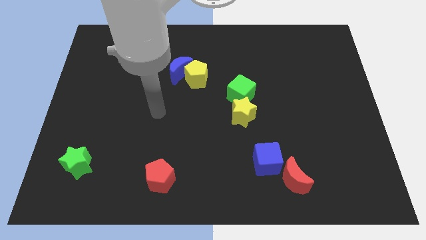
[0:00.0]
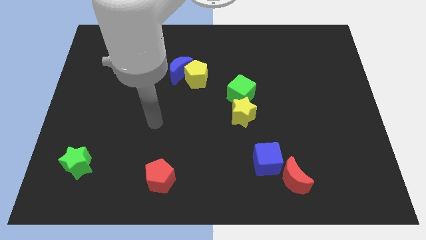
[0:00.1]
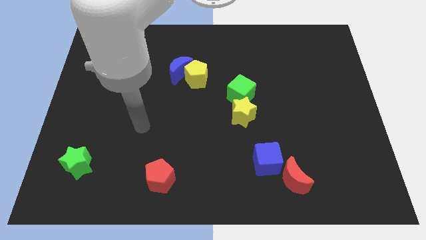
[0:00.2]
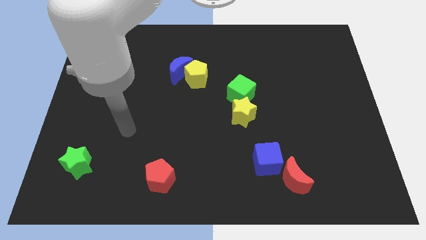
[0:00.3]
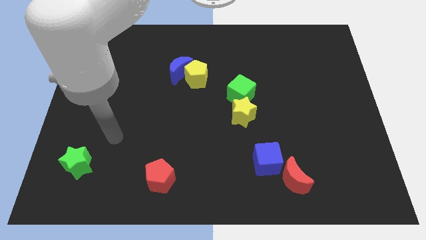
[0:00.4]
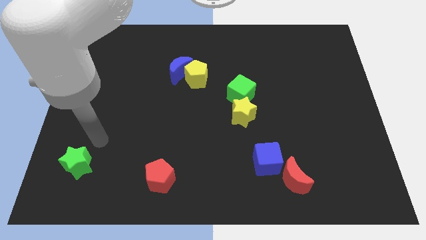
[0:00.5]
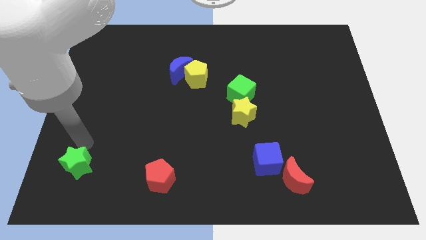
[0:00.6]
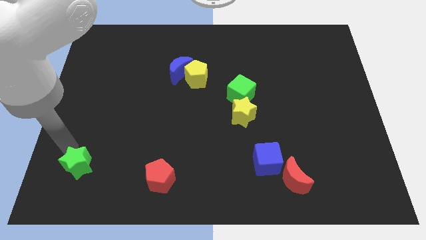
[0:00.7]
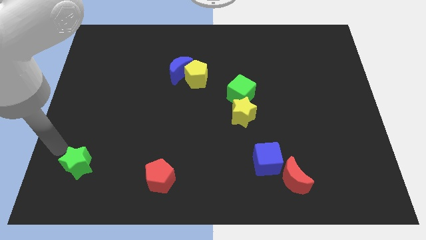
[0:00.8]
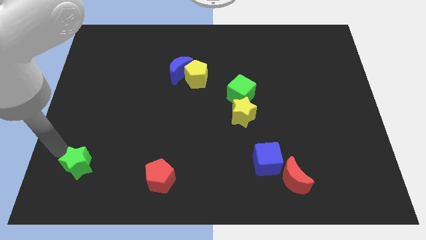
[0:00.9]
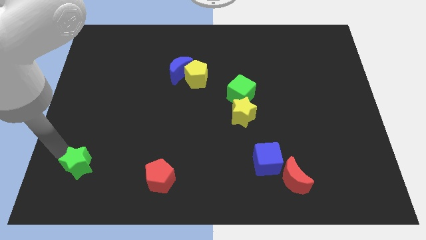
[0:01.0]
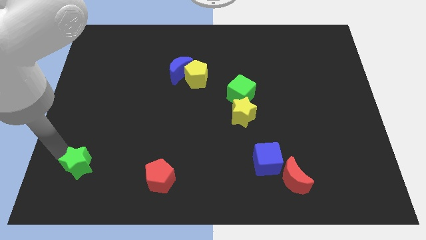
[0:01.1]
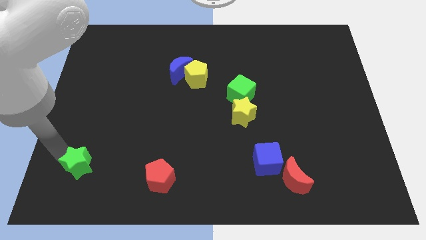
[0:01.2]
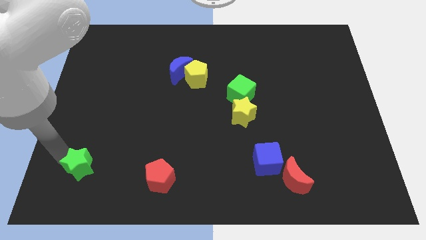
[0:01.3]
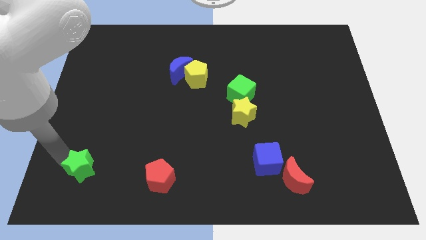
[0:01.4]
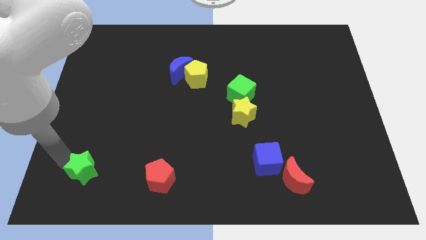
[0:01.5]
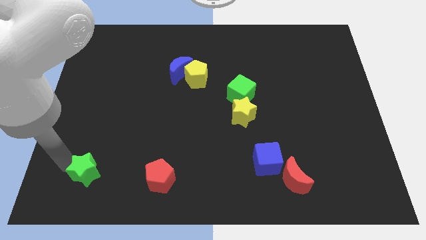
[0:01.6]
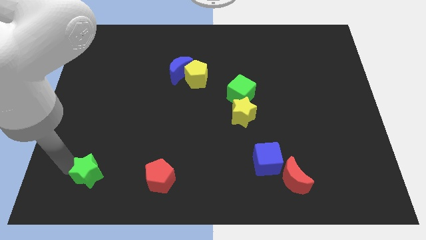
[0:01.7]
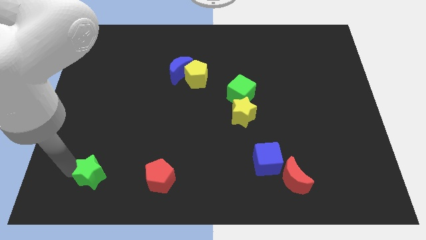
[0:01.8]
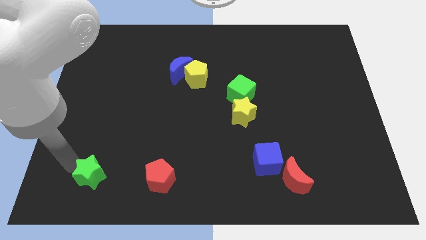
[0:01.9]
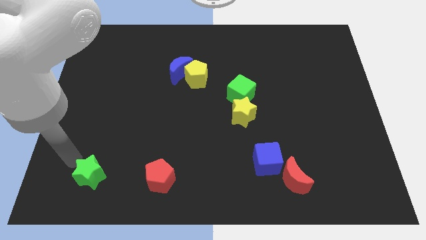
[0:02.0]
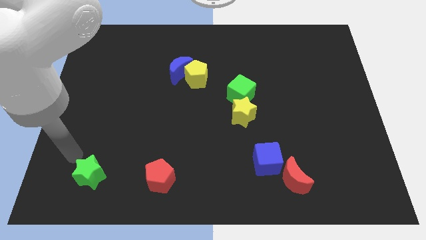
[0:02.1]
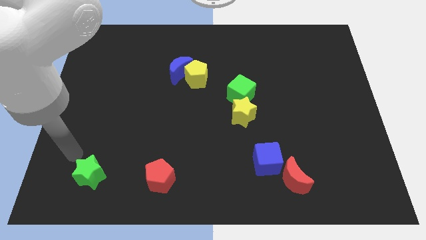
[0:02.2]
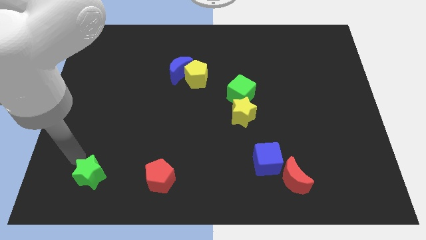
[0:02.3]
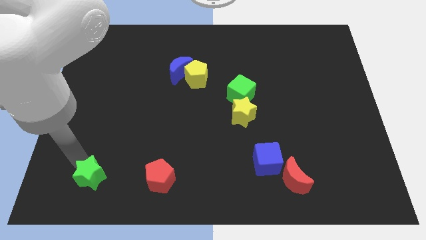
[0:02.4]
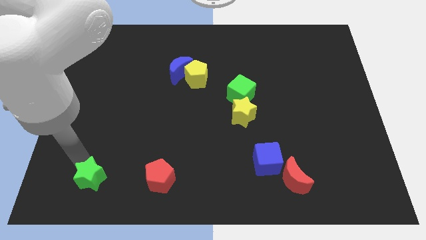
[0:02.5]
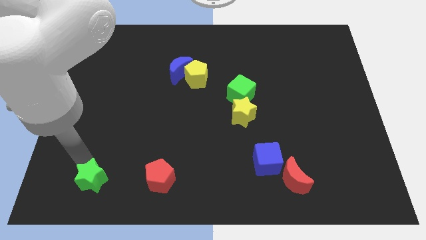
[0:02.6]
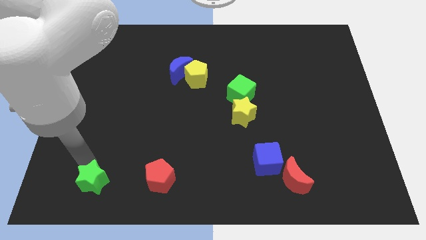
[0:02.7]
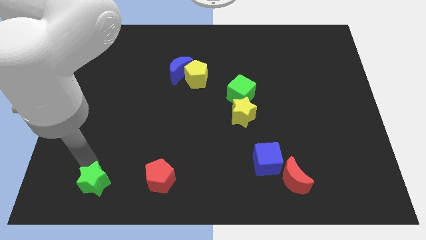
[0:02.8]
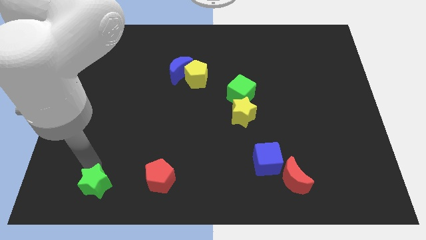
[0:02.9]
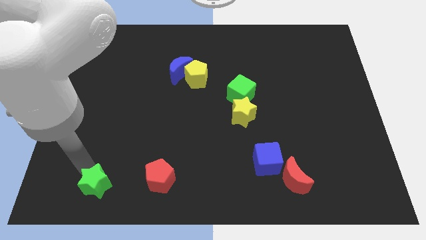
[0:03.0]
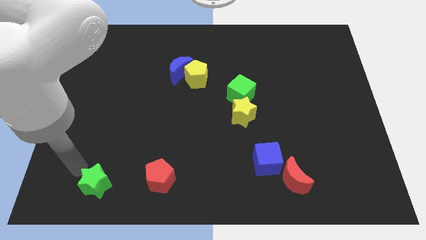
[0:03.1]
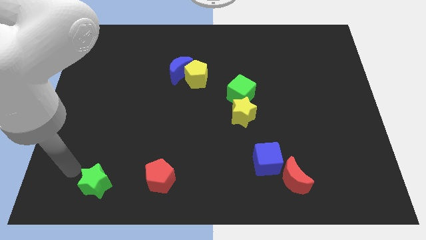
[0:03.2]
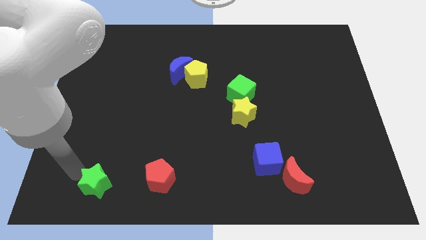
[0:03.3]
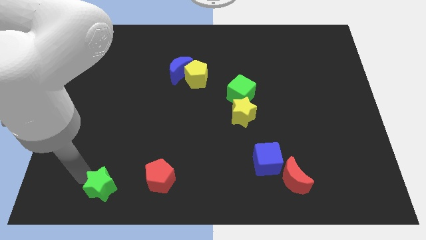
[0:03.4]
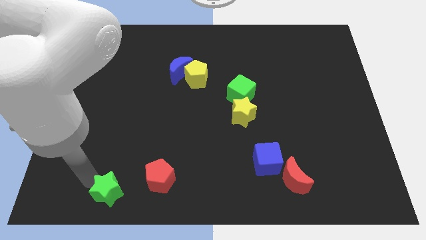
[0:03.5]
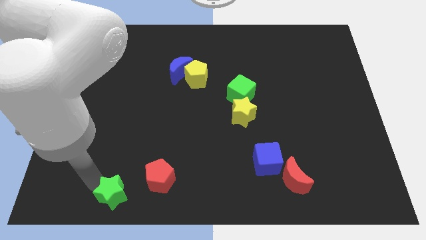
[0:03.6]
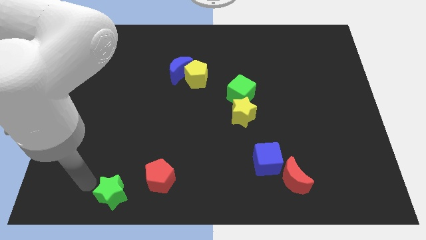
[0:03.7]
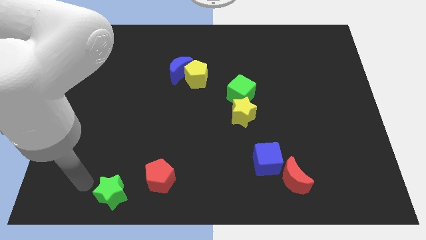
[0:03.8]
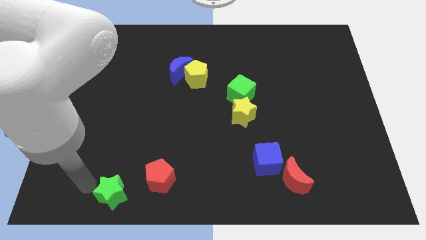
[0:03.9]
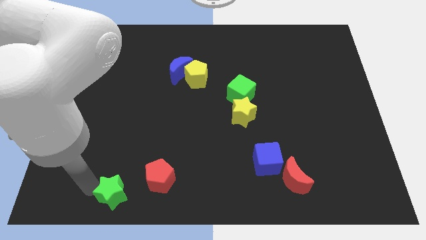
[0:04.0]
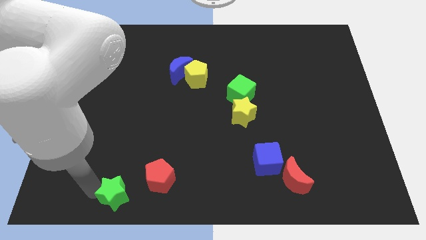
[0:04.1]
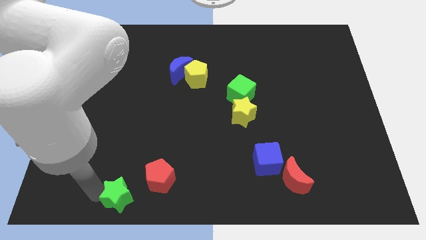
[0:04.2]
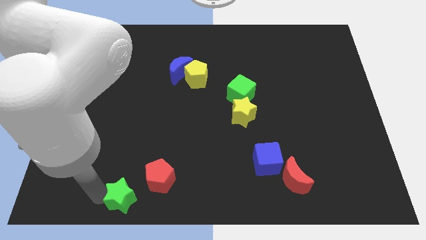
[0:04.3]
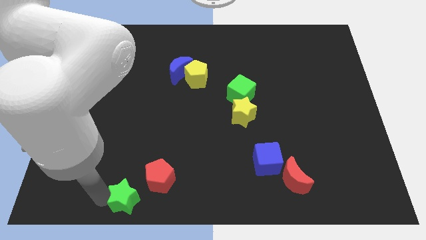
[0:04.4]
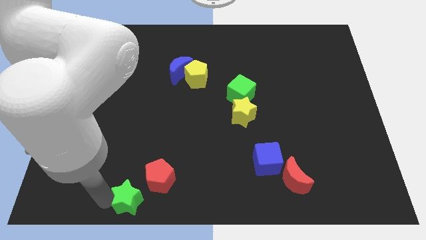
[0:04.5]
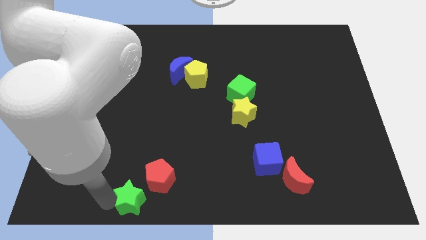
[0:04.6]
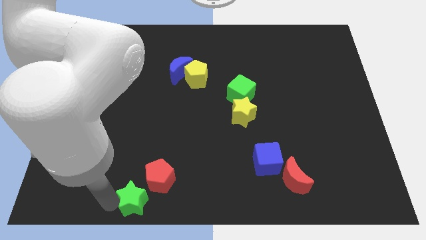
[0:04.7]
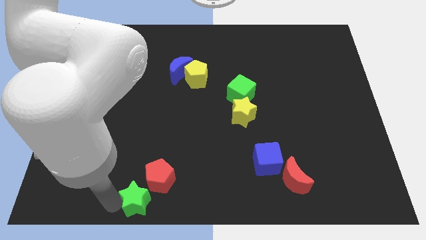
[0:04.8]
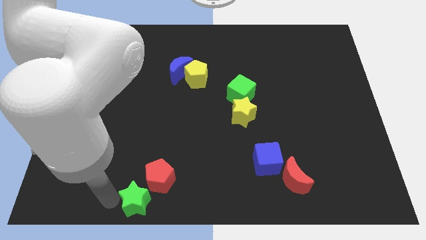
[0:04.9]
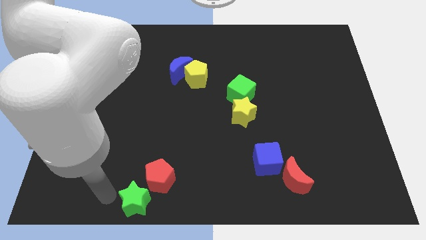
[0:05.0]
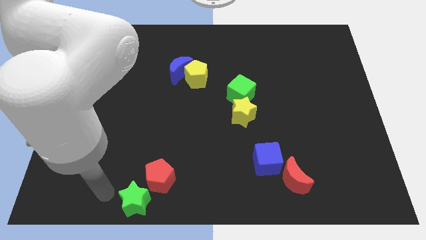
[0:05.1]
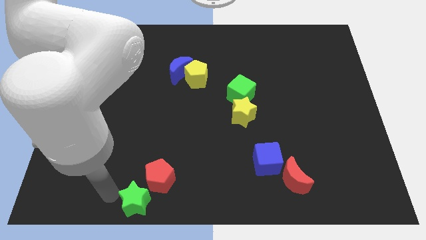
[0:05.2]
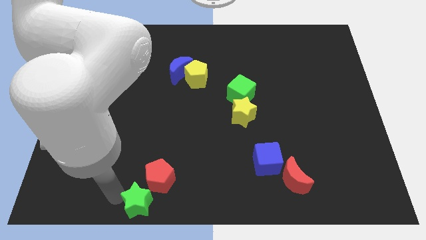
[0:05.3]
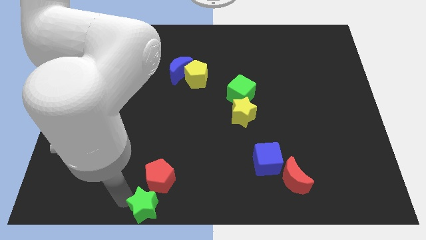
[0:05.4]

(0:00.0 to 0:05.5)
put the green star to the bottom
